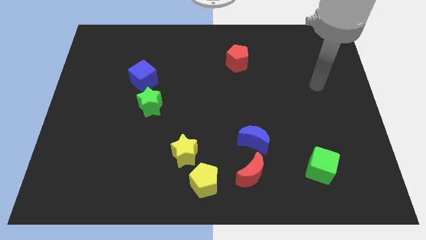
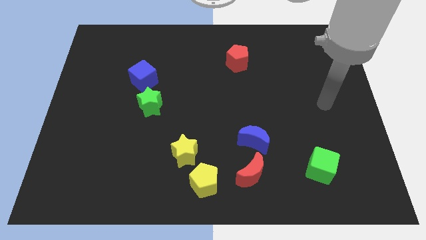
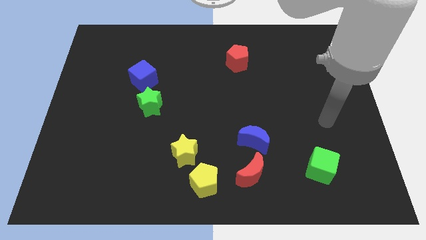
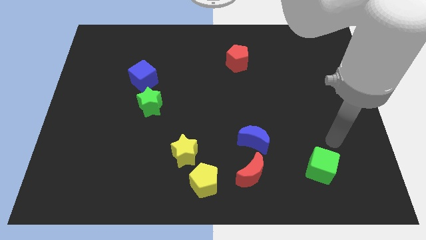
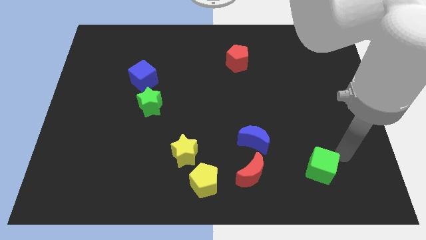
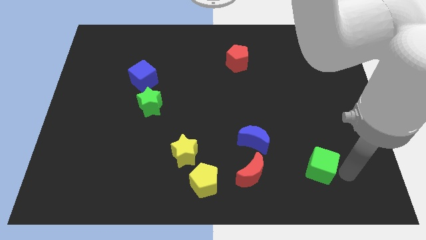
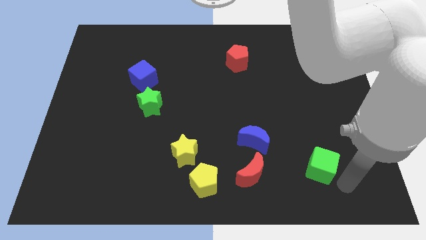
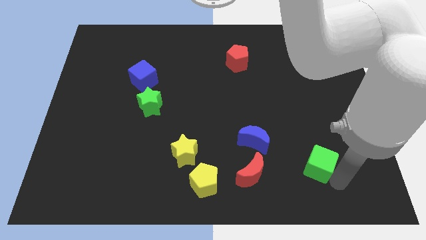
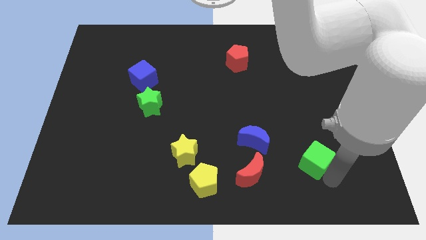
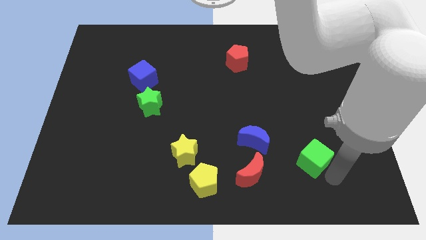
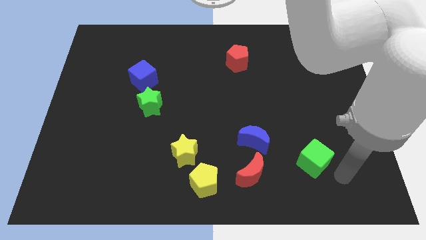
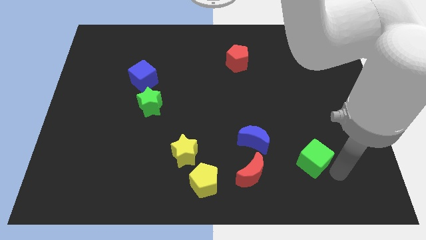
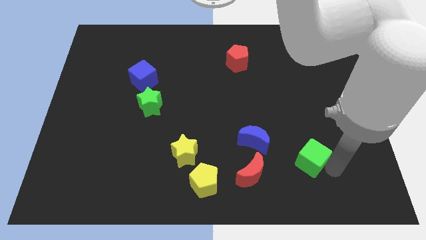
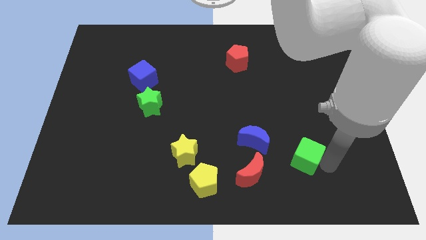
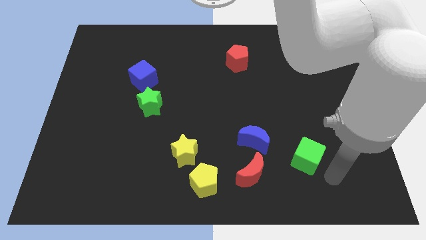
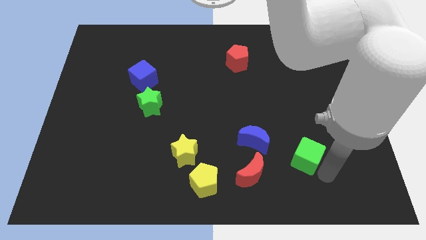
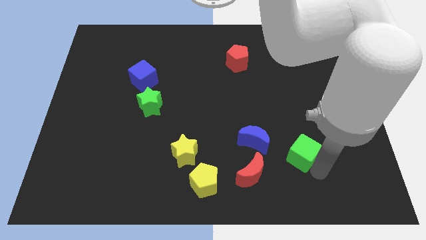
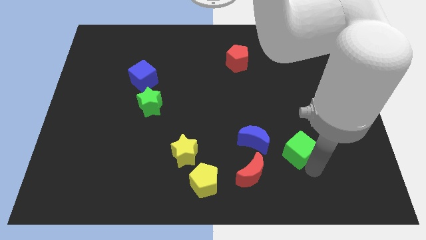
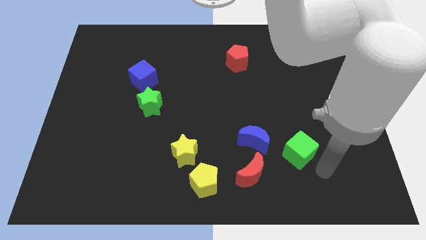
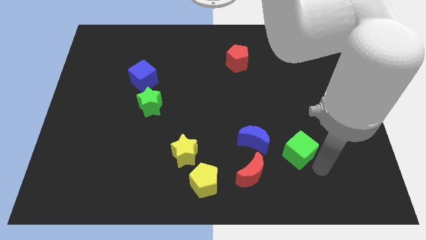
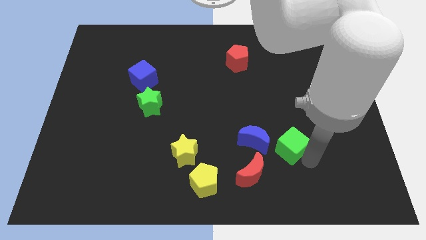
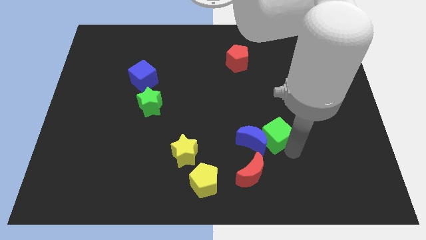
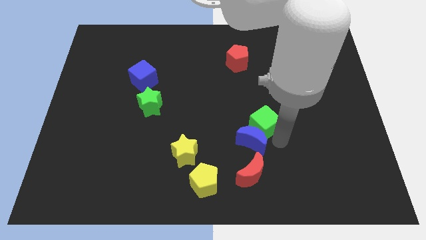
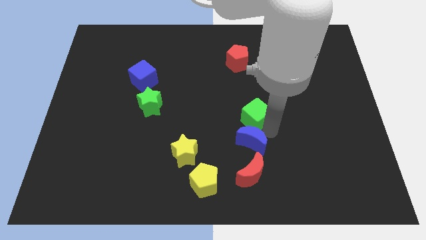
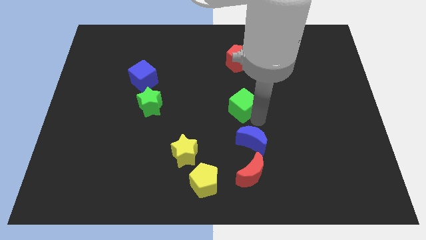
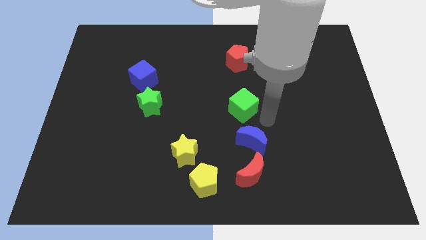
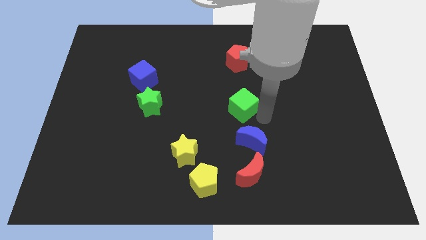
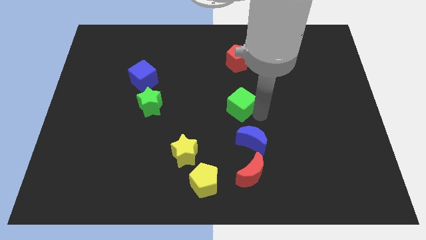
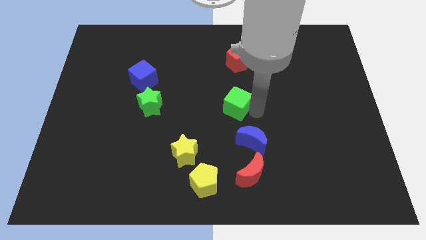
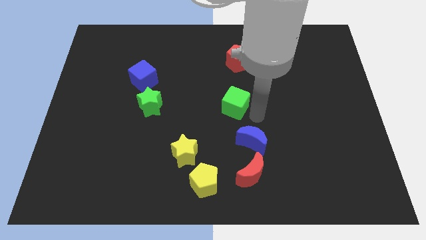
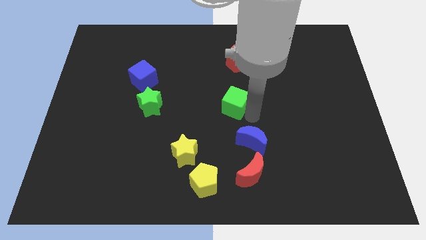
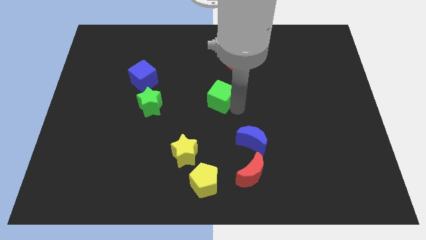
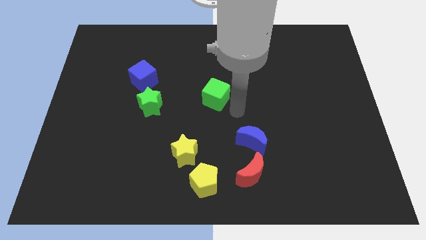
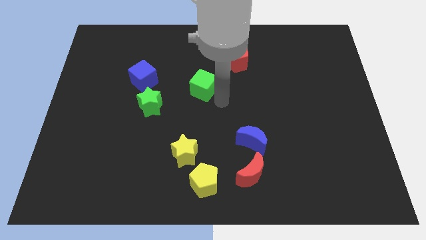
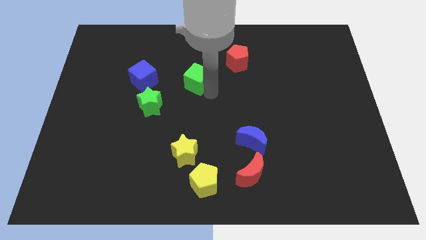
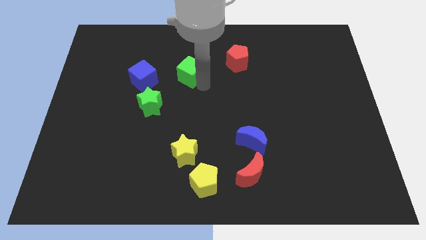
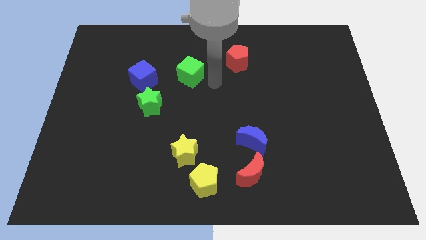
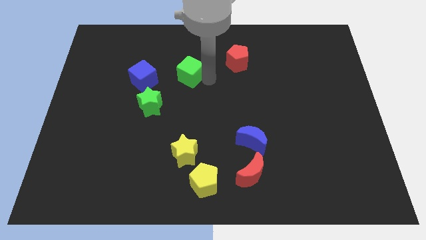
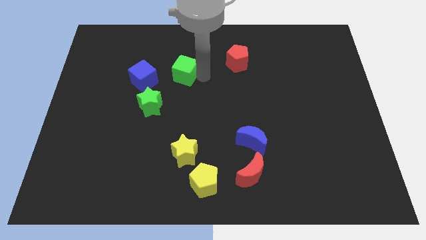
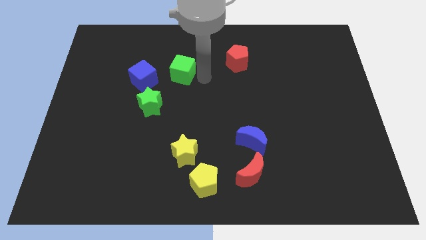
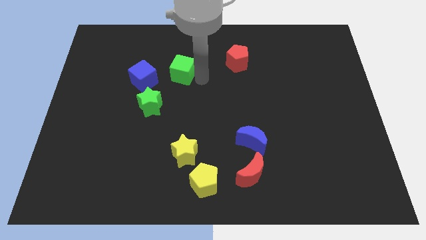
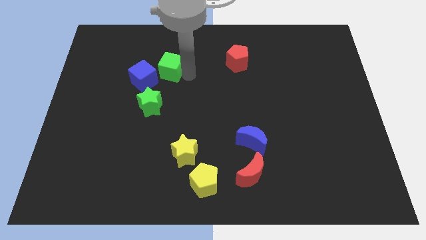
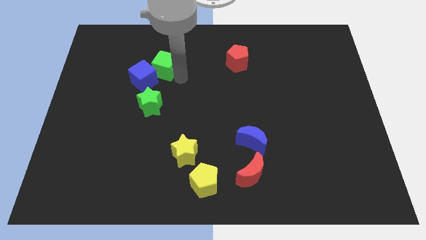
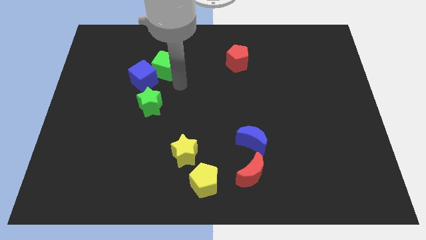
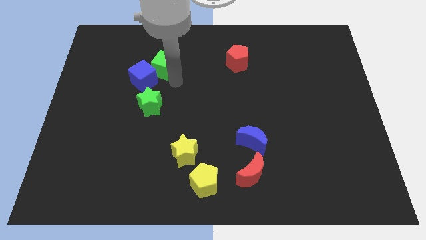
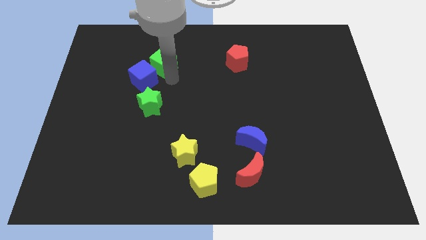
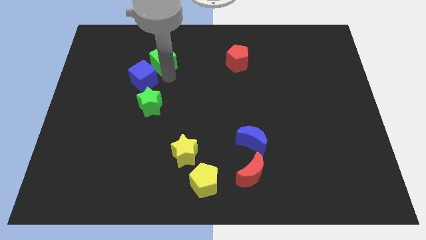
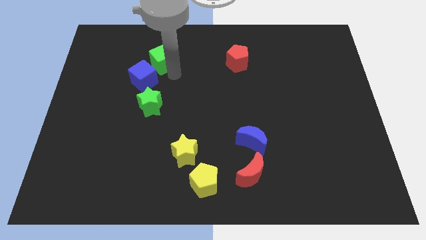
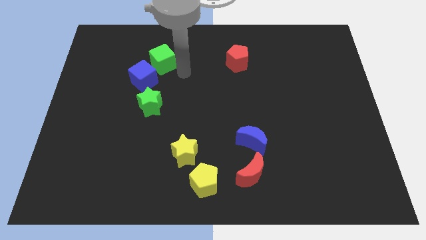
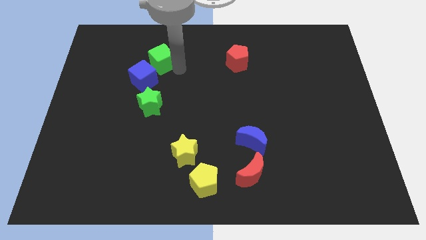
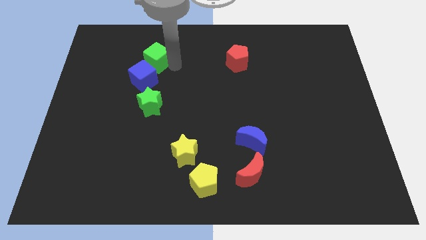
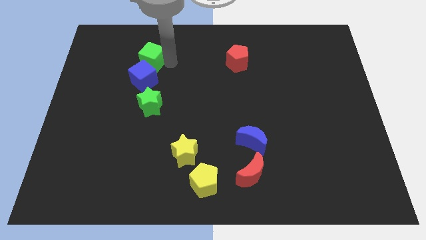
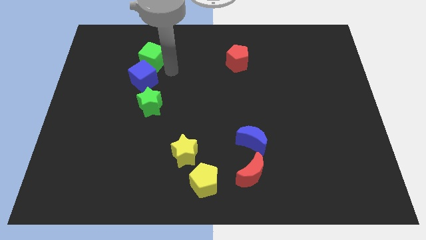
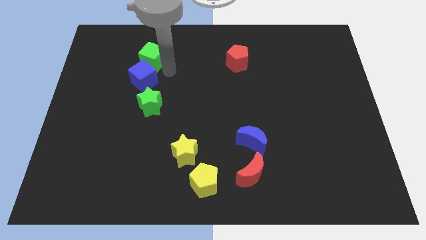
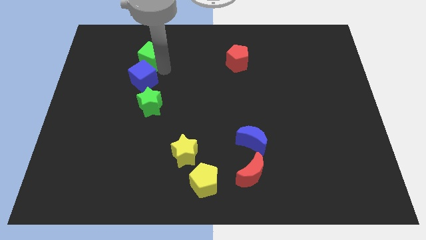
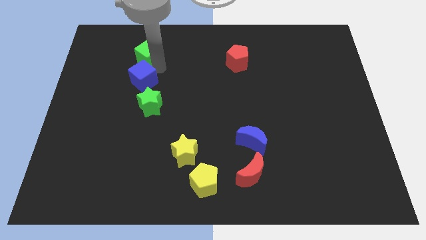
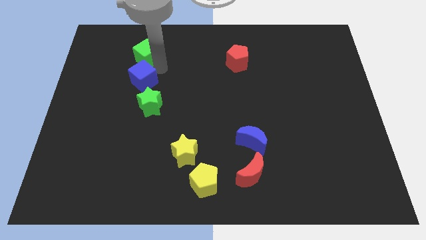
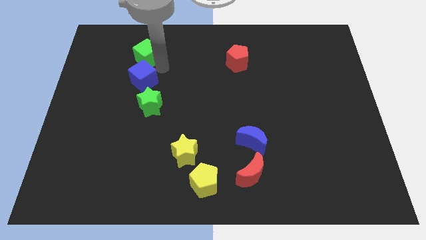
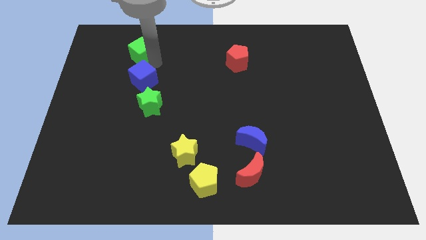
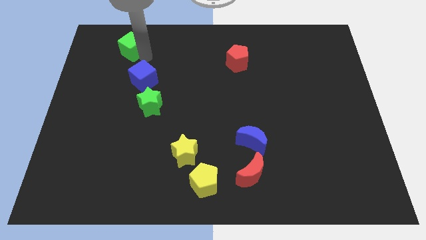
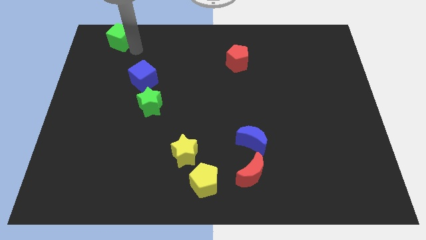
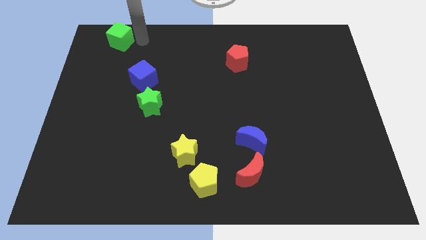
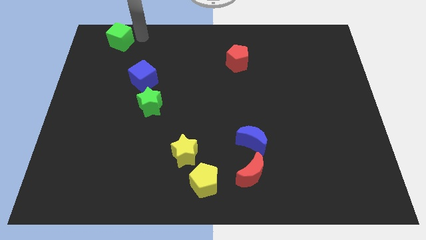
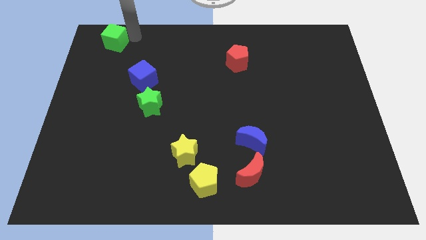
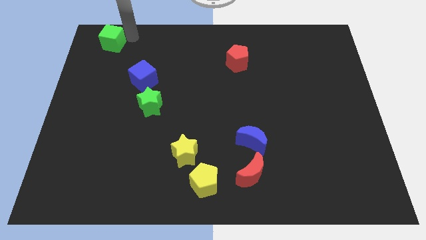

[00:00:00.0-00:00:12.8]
put the green cube to the top left corner
